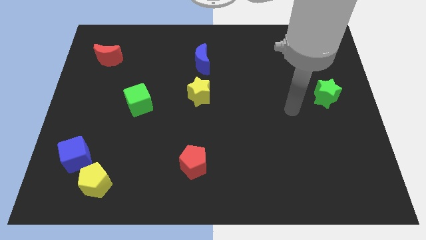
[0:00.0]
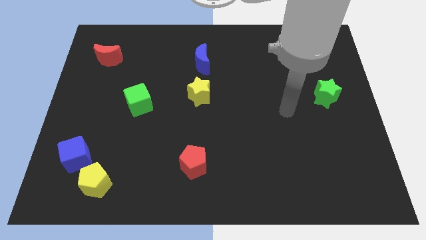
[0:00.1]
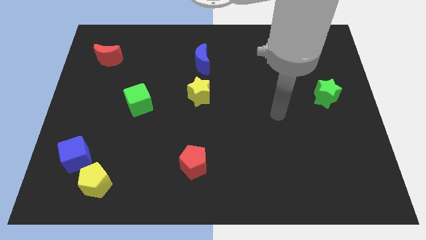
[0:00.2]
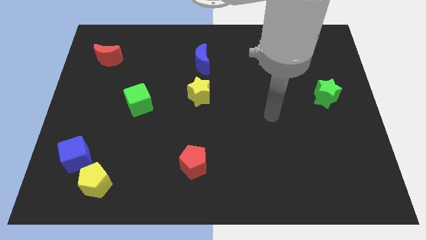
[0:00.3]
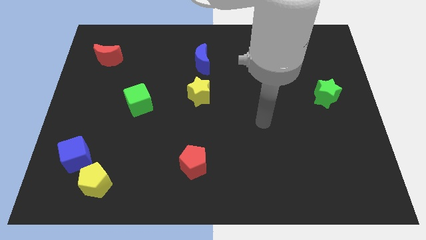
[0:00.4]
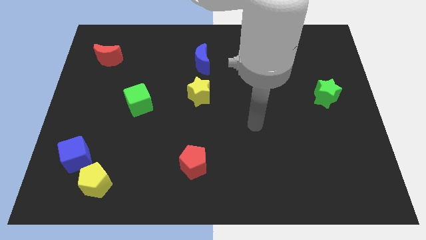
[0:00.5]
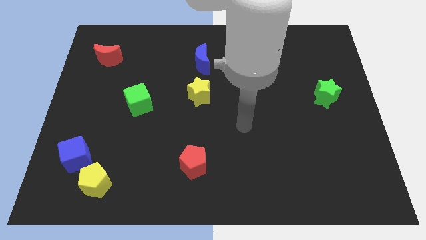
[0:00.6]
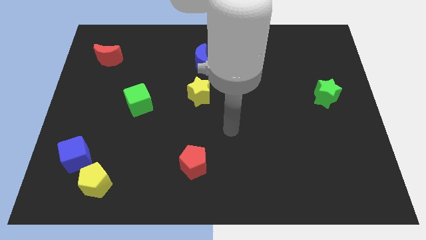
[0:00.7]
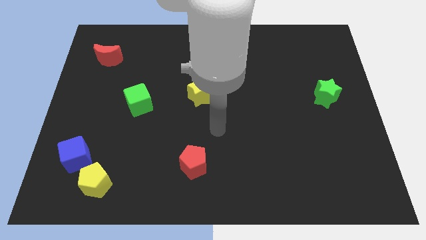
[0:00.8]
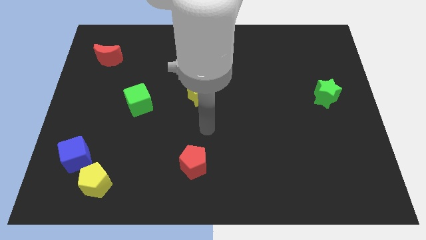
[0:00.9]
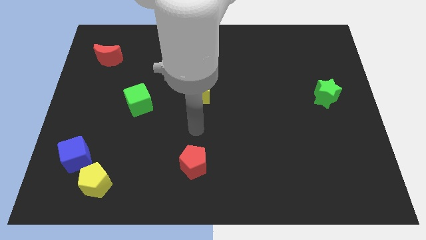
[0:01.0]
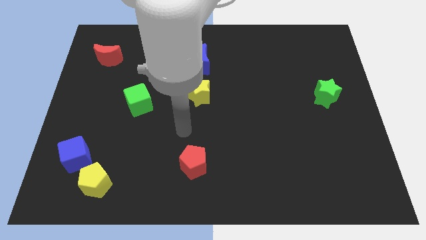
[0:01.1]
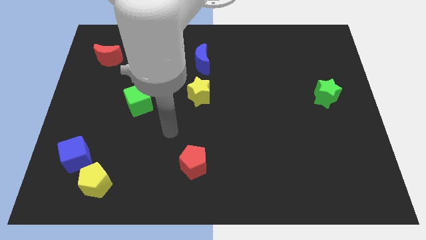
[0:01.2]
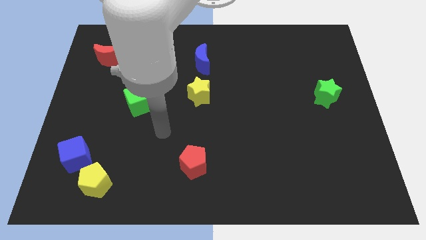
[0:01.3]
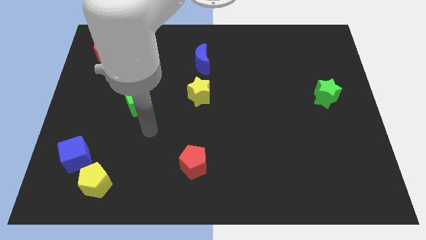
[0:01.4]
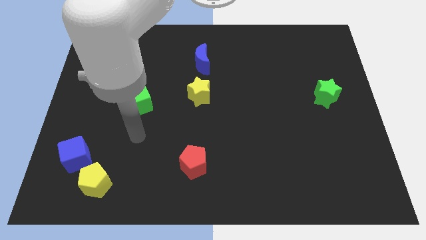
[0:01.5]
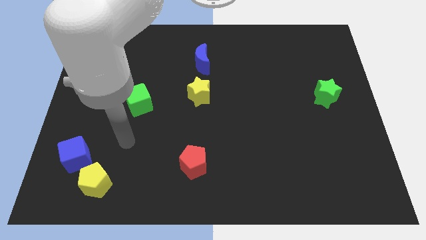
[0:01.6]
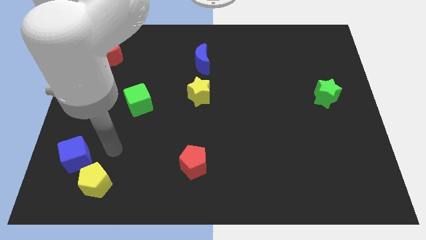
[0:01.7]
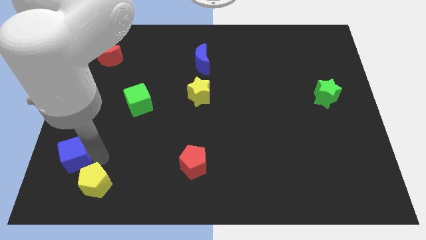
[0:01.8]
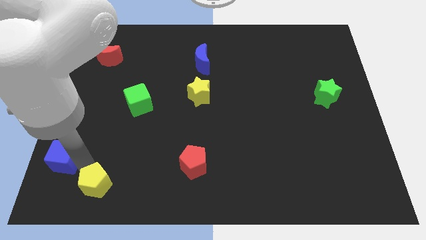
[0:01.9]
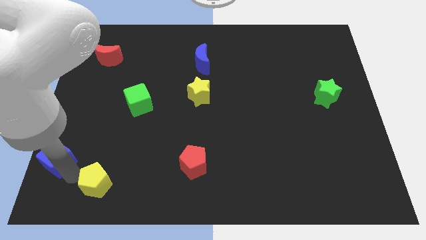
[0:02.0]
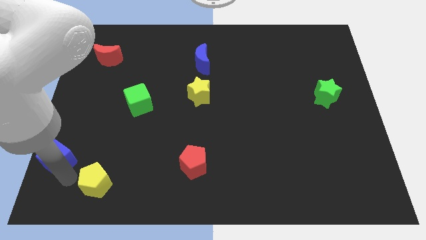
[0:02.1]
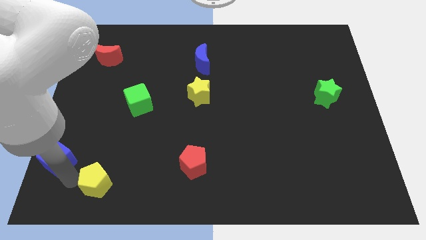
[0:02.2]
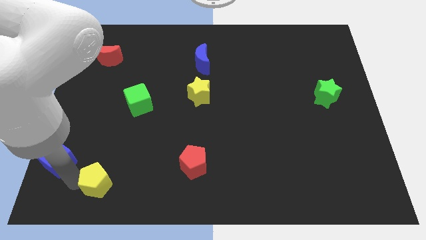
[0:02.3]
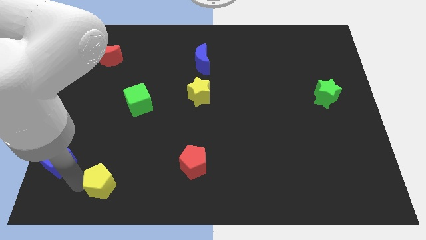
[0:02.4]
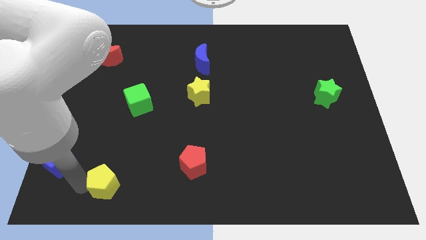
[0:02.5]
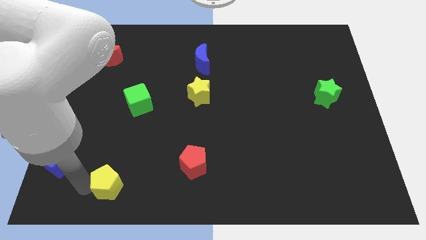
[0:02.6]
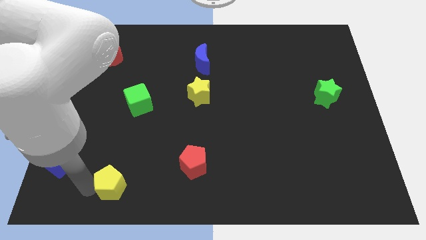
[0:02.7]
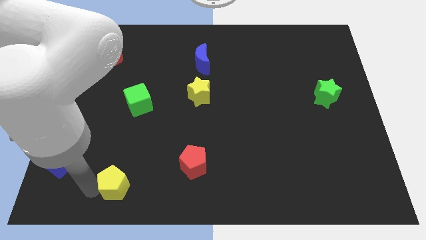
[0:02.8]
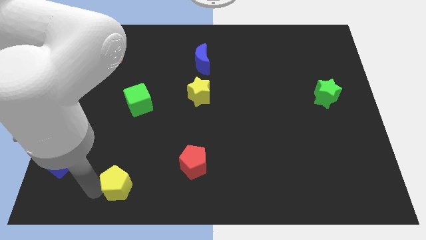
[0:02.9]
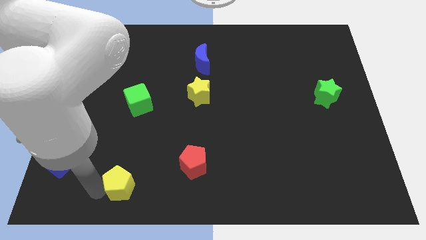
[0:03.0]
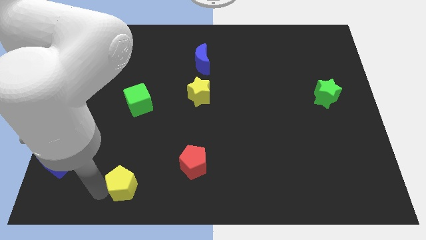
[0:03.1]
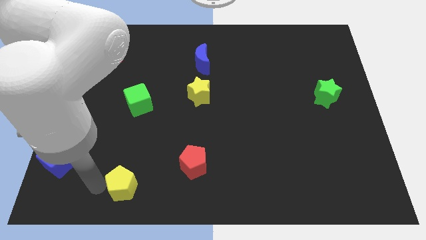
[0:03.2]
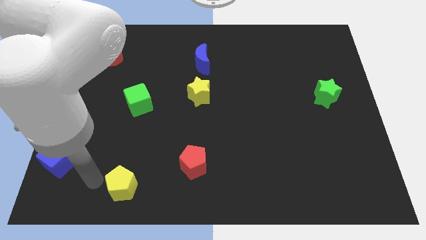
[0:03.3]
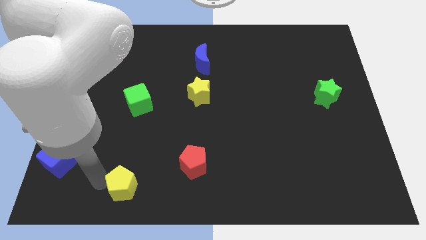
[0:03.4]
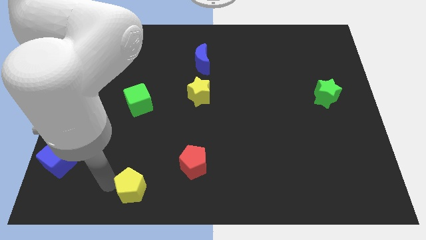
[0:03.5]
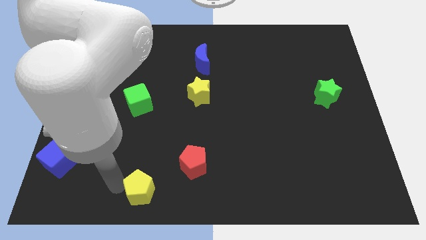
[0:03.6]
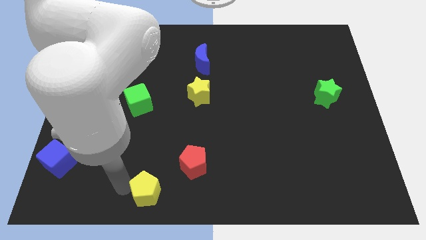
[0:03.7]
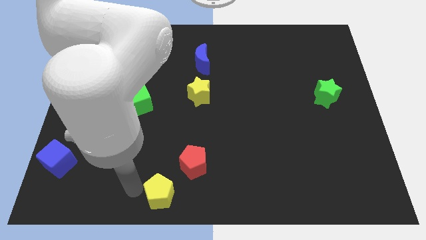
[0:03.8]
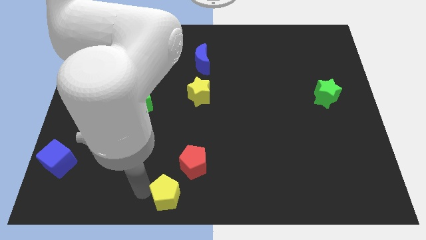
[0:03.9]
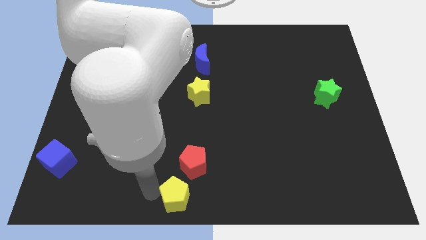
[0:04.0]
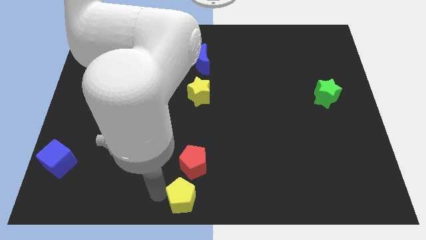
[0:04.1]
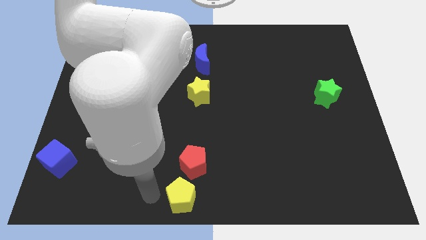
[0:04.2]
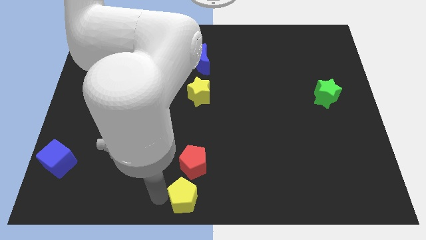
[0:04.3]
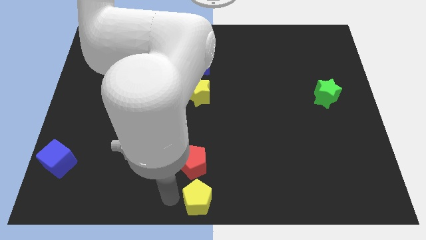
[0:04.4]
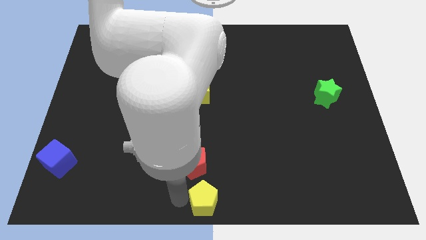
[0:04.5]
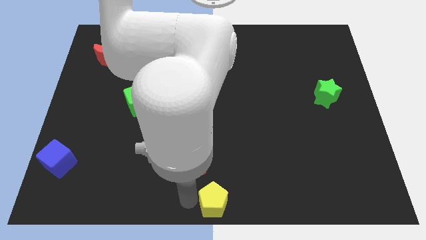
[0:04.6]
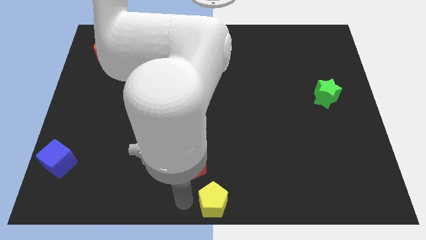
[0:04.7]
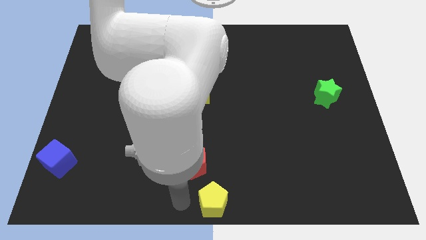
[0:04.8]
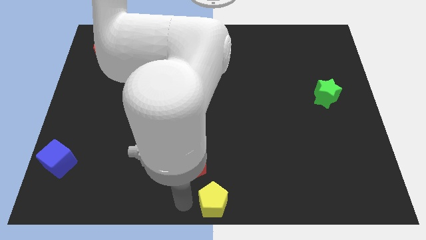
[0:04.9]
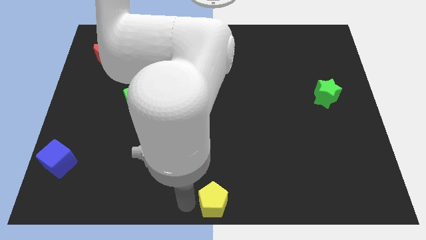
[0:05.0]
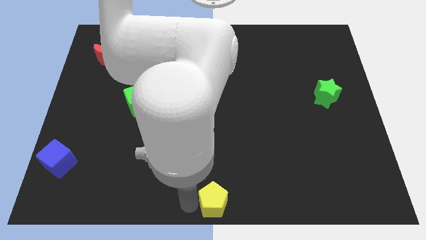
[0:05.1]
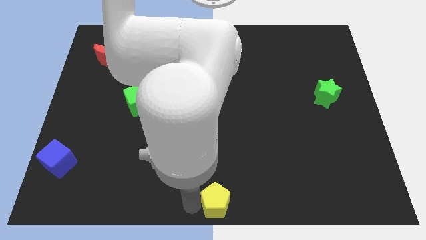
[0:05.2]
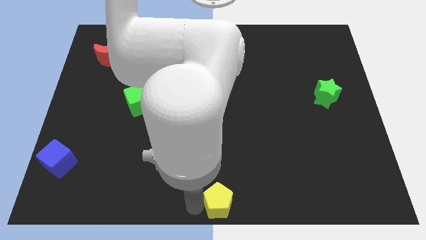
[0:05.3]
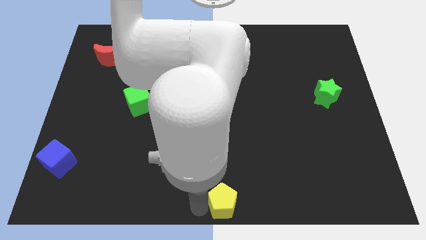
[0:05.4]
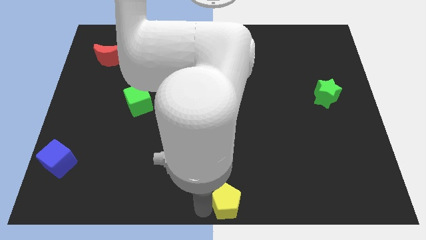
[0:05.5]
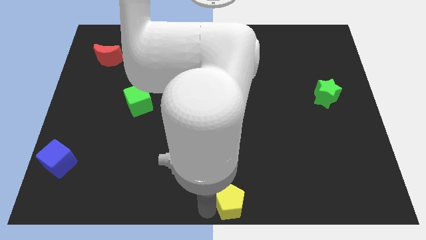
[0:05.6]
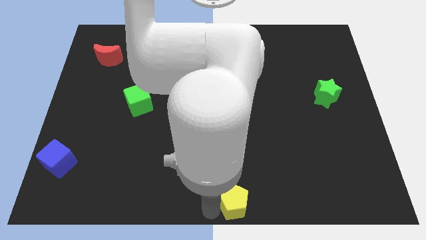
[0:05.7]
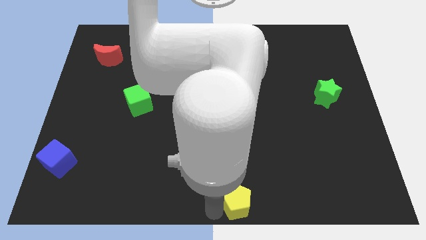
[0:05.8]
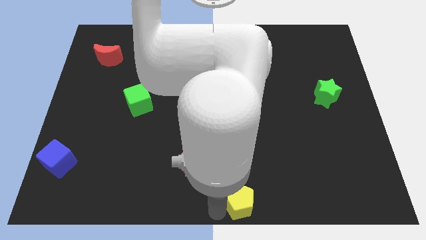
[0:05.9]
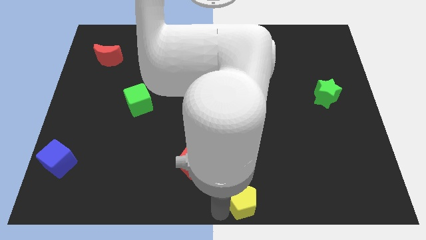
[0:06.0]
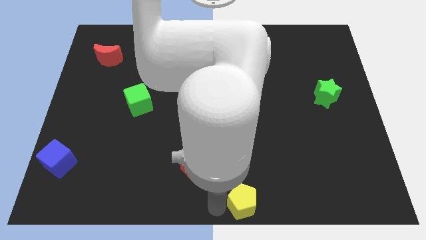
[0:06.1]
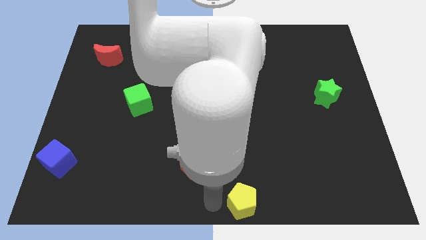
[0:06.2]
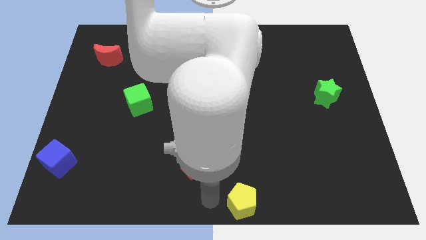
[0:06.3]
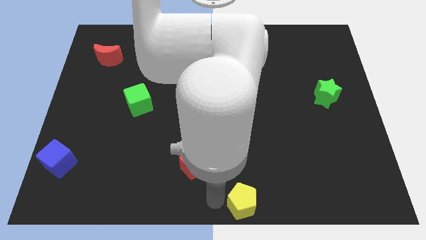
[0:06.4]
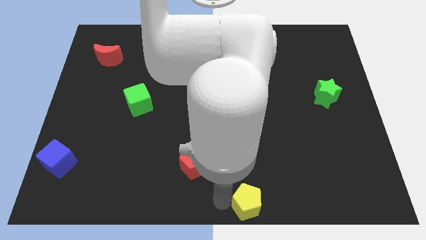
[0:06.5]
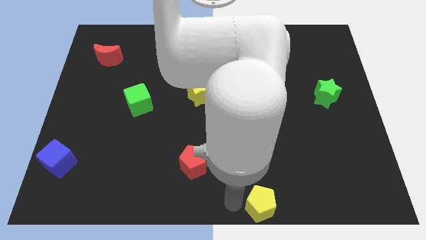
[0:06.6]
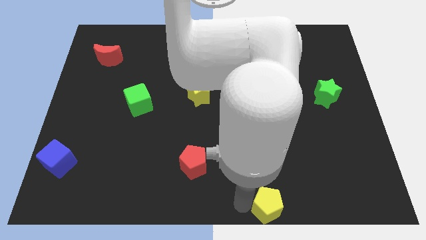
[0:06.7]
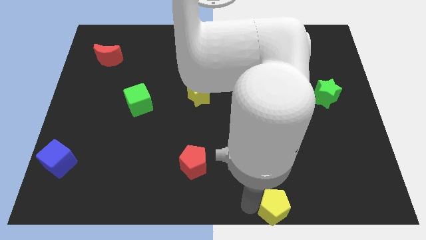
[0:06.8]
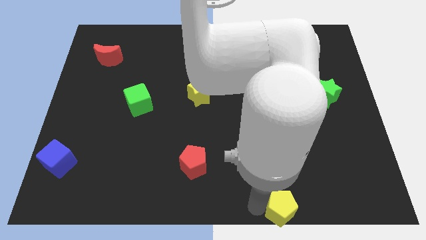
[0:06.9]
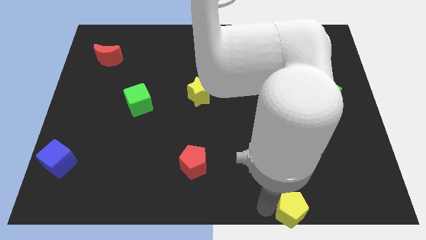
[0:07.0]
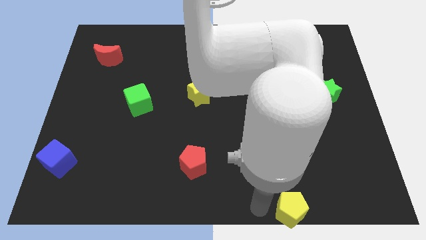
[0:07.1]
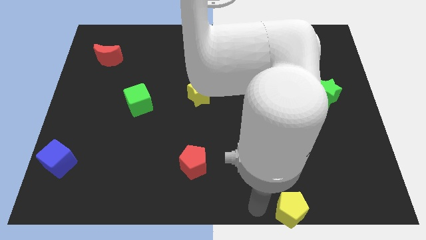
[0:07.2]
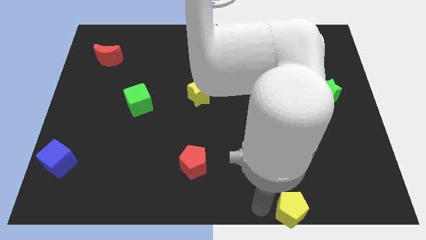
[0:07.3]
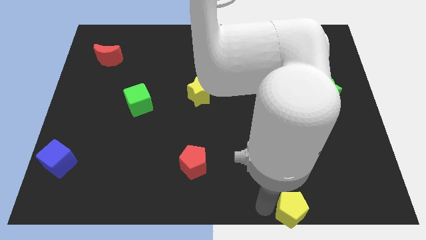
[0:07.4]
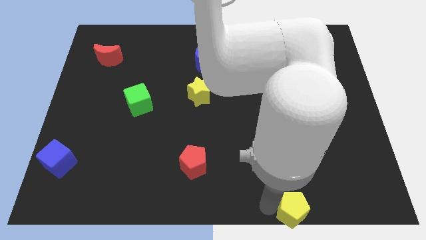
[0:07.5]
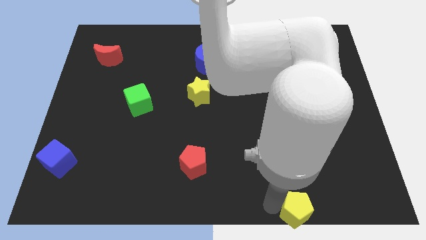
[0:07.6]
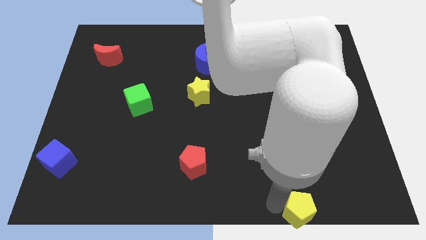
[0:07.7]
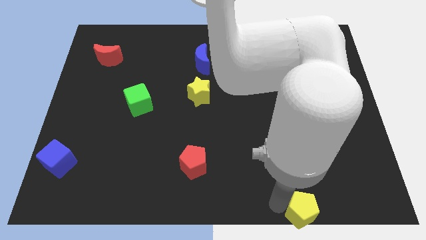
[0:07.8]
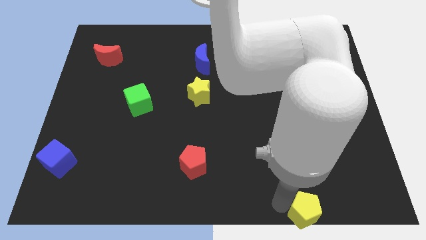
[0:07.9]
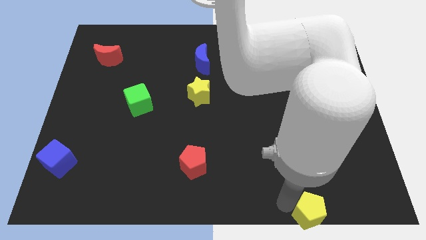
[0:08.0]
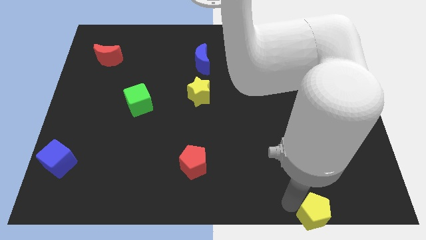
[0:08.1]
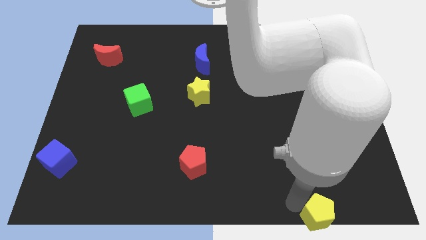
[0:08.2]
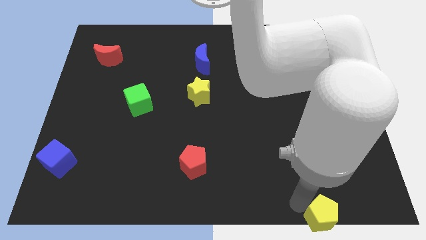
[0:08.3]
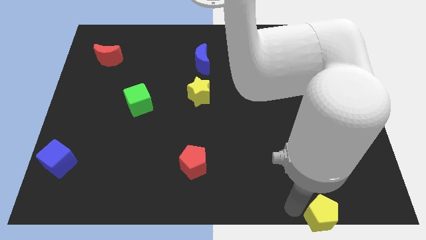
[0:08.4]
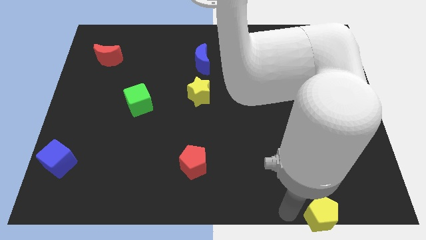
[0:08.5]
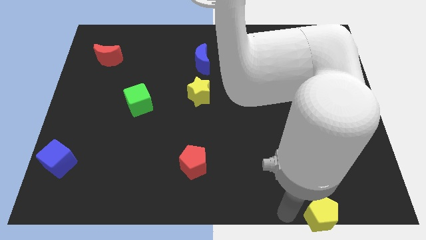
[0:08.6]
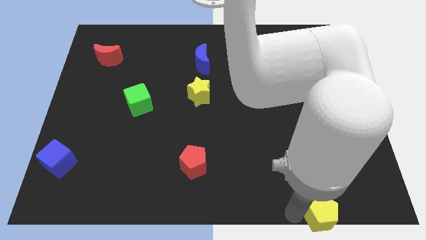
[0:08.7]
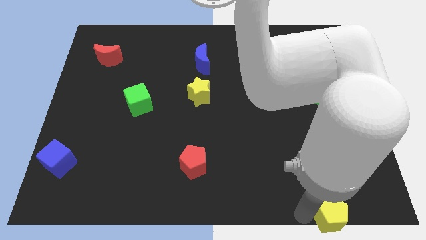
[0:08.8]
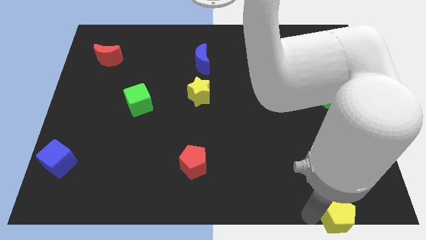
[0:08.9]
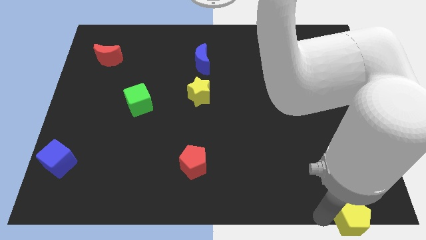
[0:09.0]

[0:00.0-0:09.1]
put the yellow pentagon to the lower right corner
